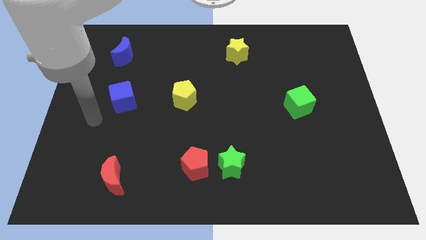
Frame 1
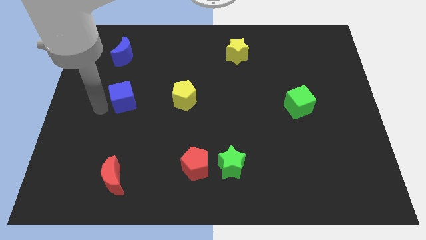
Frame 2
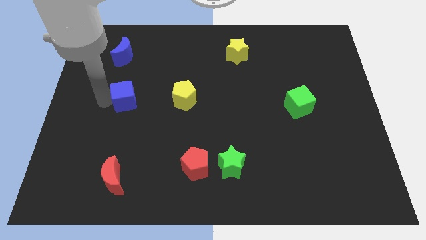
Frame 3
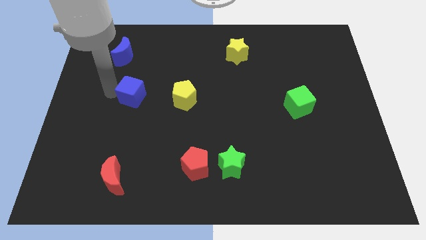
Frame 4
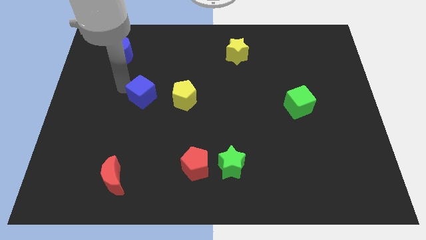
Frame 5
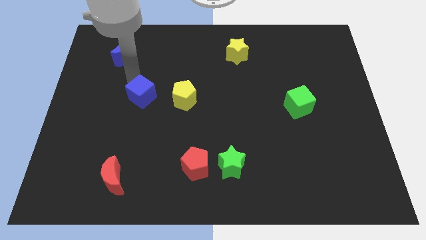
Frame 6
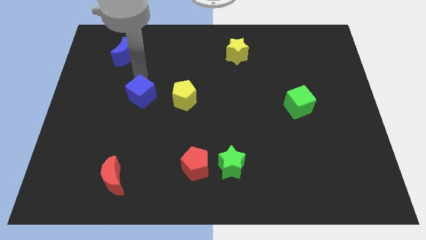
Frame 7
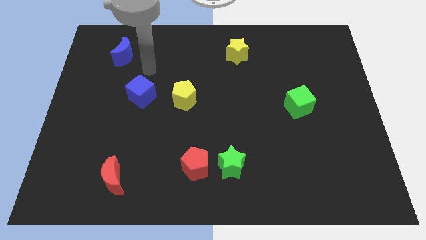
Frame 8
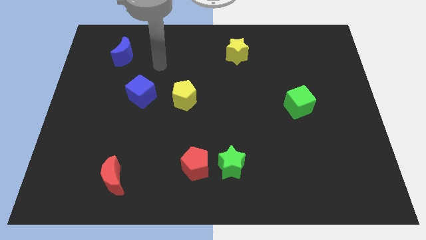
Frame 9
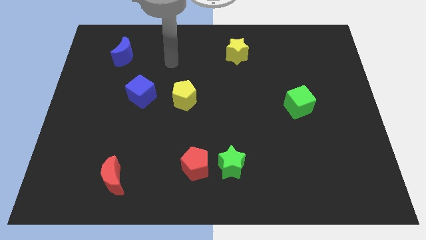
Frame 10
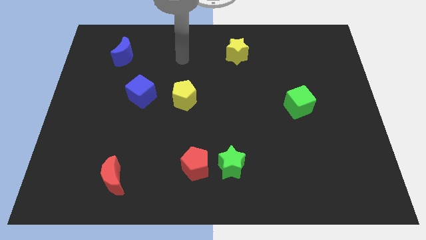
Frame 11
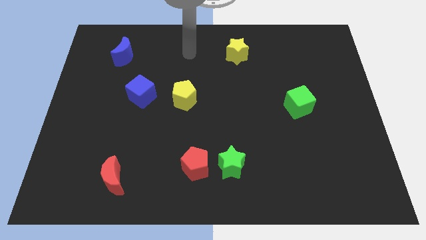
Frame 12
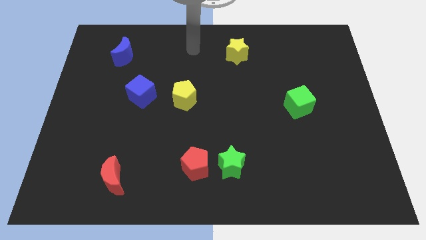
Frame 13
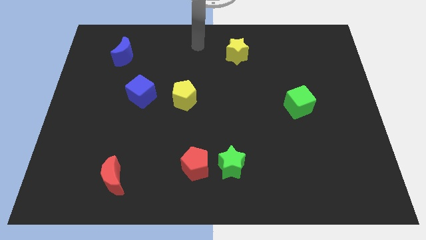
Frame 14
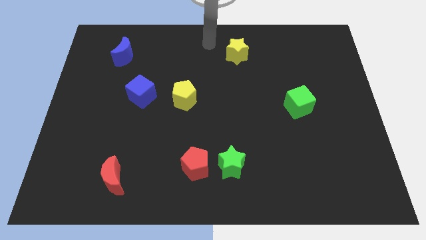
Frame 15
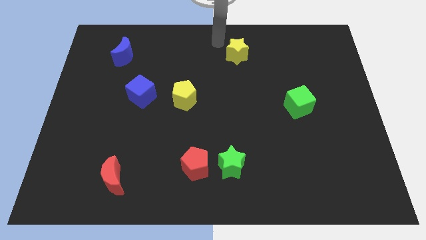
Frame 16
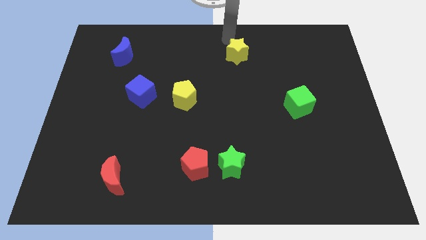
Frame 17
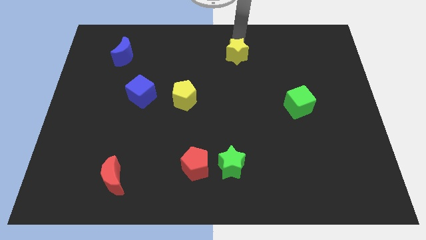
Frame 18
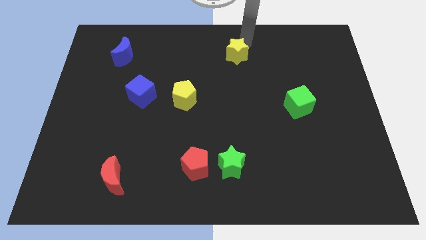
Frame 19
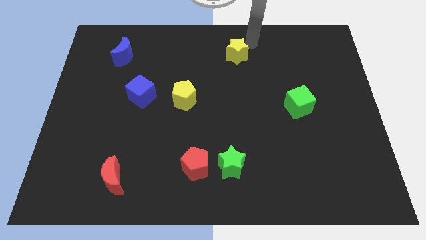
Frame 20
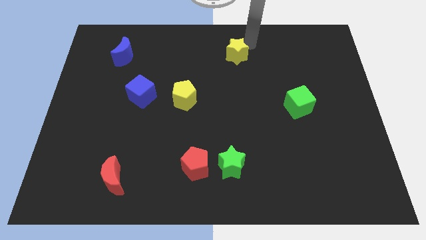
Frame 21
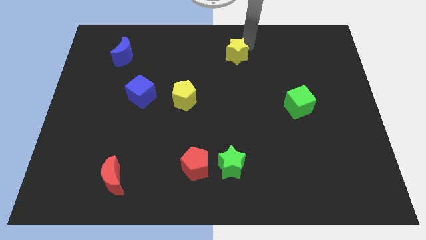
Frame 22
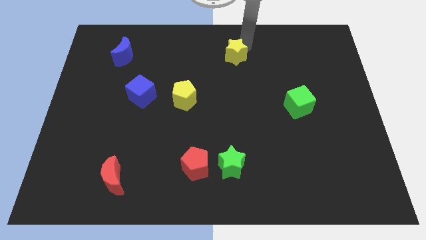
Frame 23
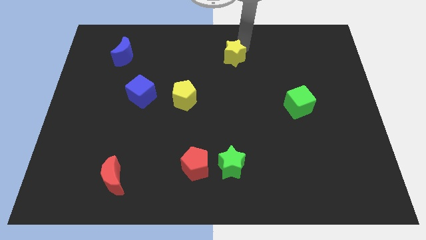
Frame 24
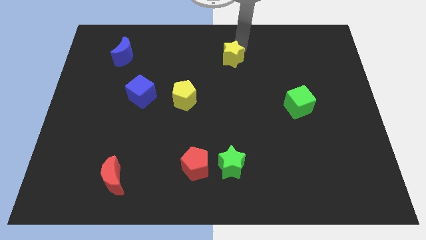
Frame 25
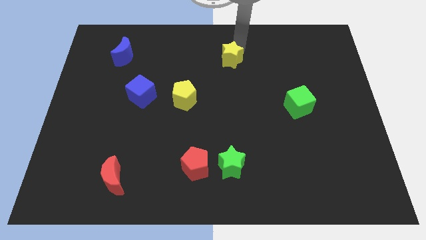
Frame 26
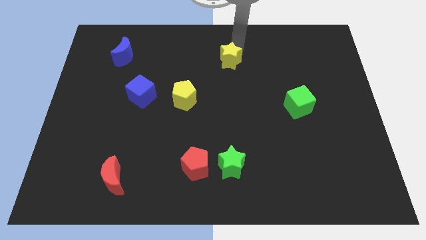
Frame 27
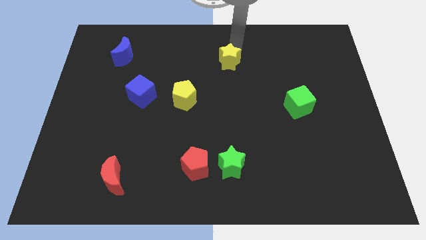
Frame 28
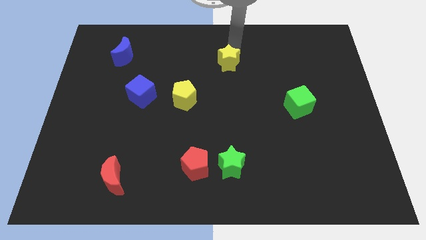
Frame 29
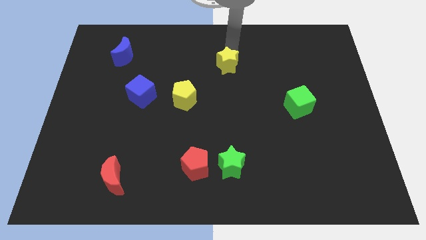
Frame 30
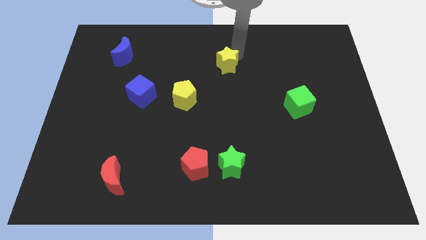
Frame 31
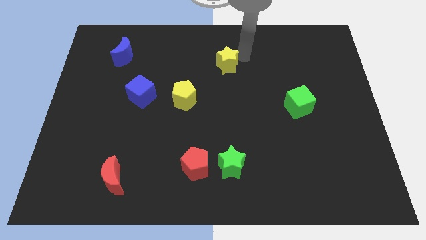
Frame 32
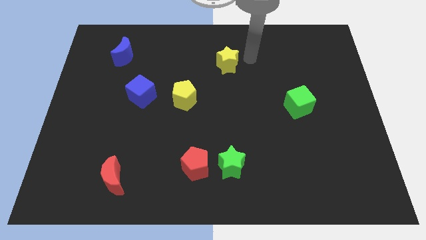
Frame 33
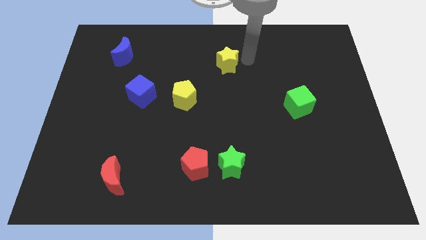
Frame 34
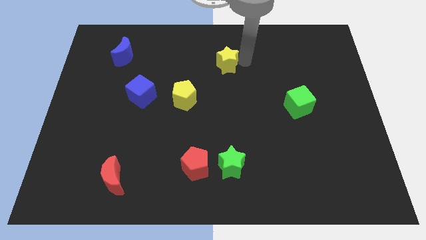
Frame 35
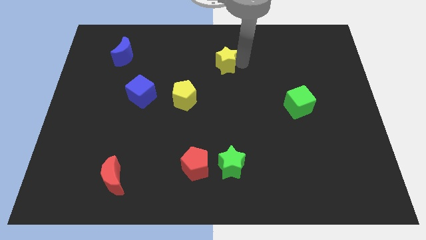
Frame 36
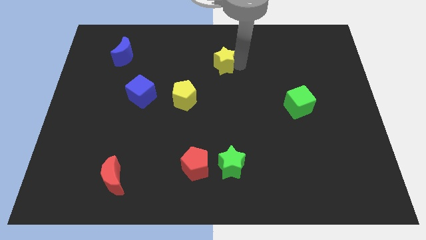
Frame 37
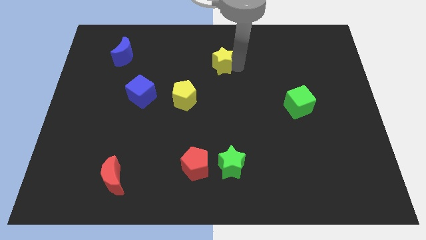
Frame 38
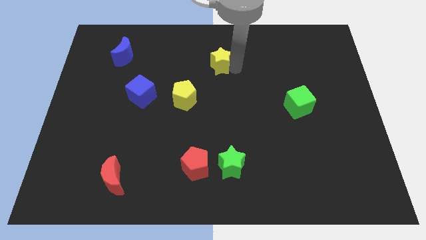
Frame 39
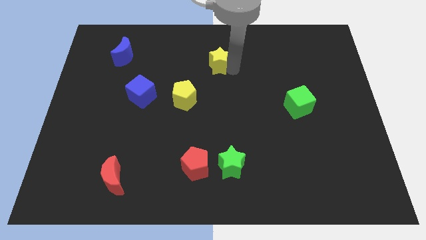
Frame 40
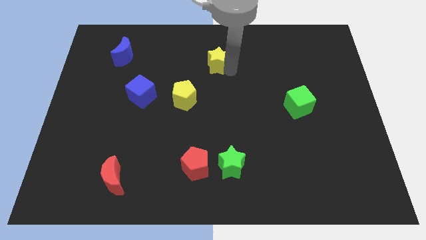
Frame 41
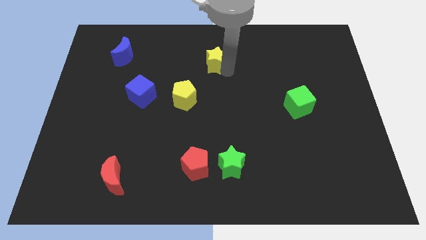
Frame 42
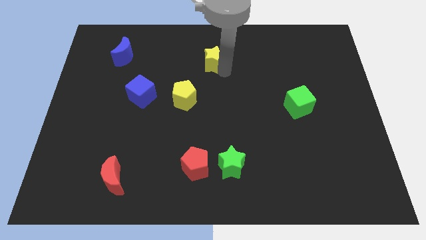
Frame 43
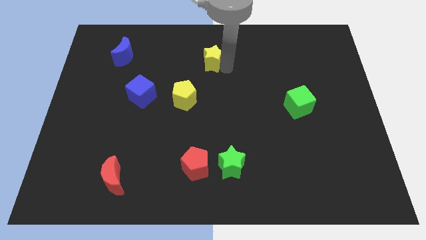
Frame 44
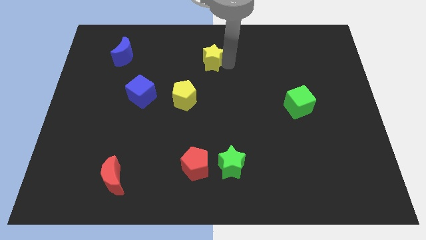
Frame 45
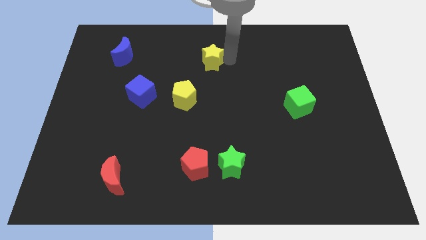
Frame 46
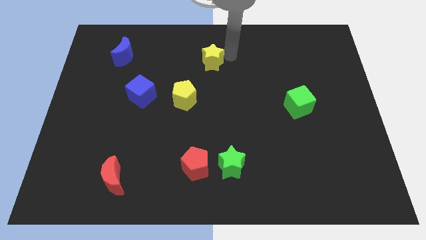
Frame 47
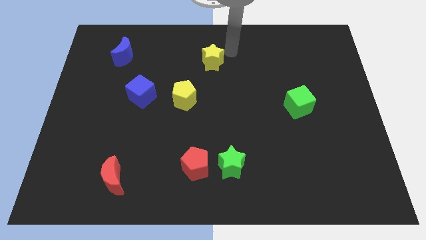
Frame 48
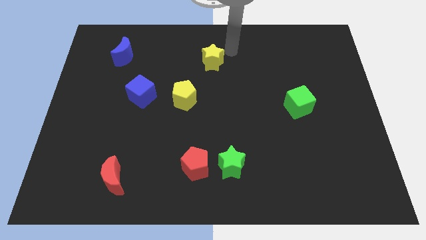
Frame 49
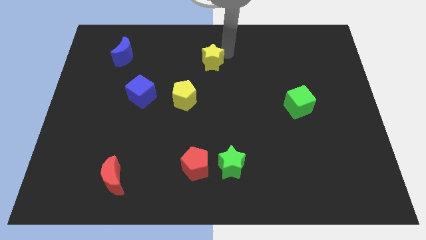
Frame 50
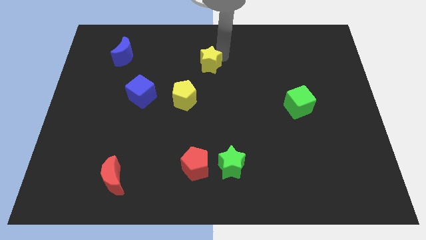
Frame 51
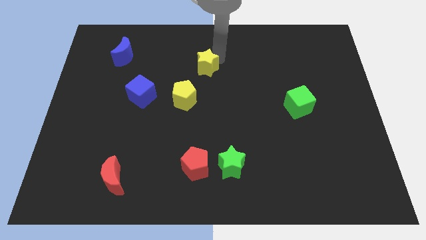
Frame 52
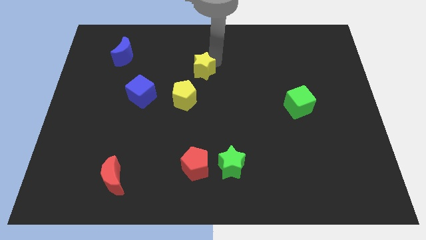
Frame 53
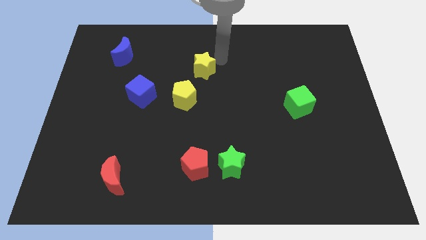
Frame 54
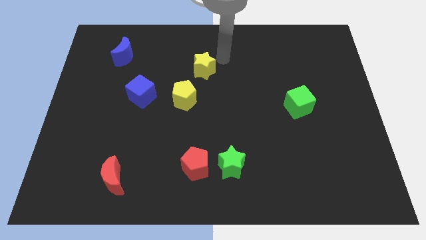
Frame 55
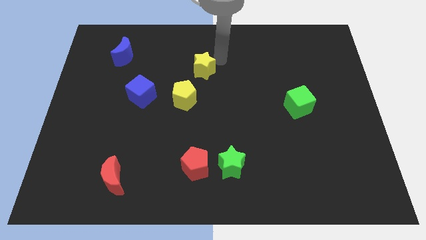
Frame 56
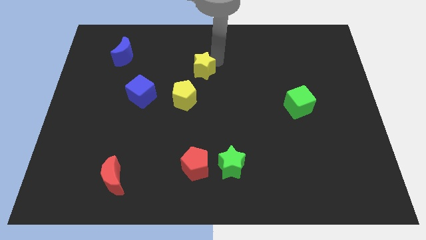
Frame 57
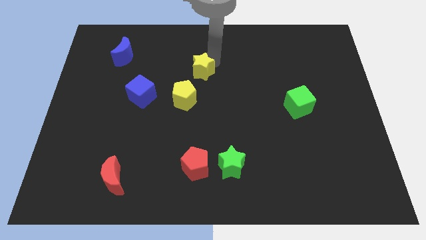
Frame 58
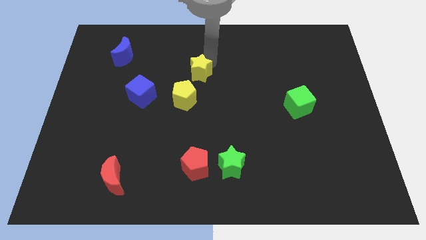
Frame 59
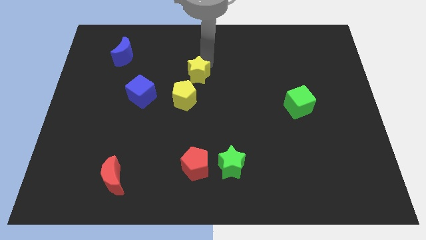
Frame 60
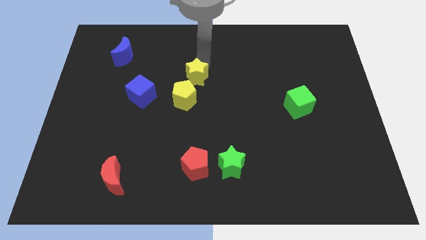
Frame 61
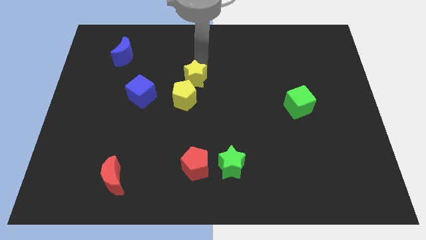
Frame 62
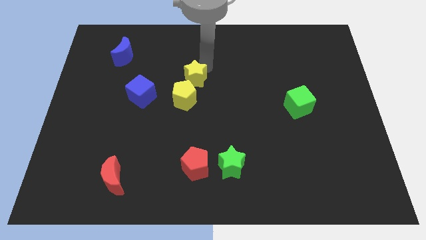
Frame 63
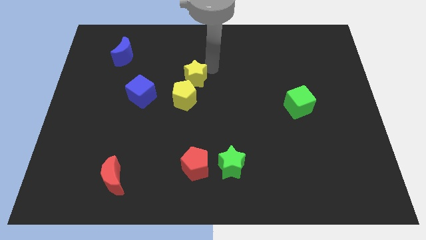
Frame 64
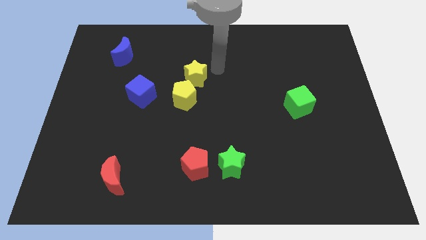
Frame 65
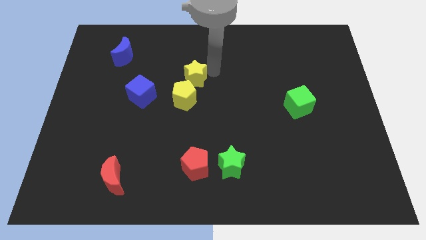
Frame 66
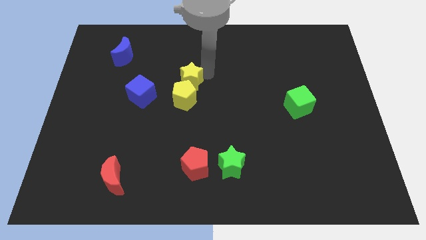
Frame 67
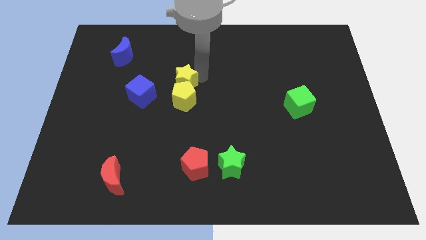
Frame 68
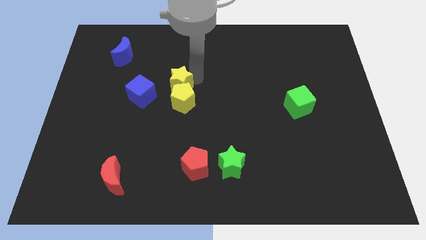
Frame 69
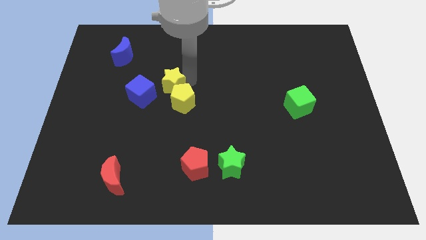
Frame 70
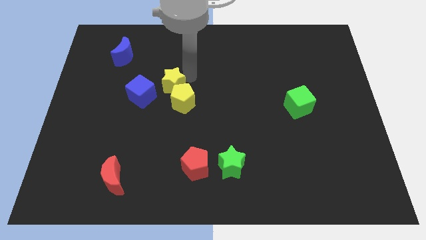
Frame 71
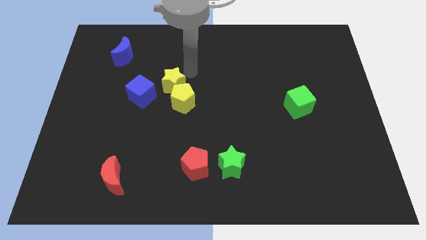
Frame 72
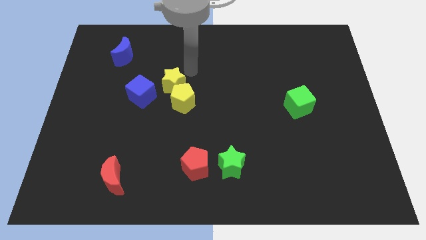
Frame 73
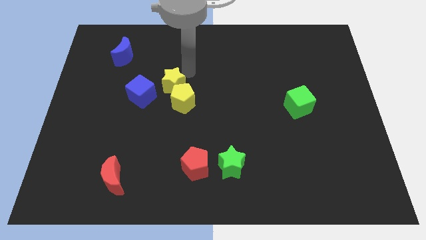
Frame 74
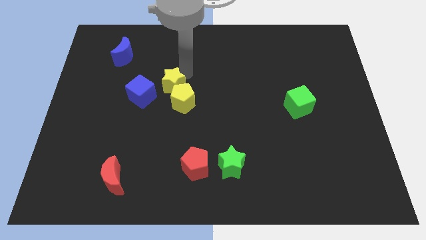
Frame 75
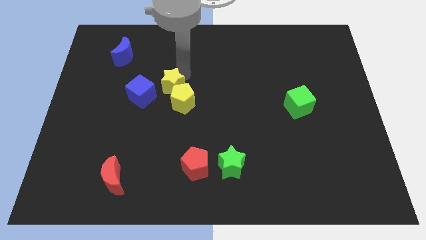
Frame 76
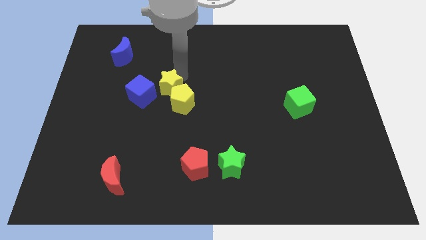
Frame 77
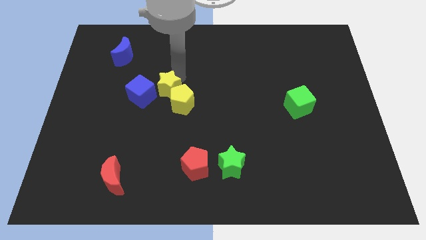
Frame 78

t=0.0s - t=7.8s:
slide the yellow star down and to the left

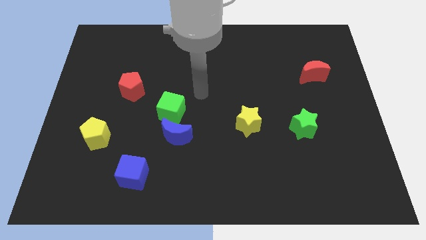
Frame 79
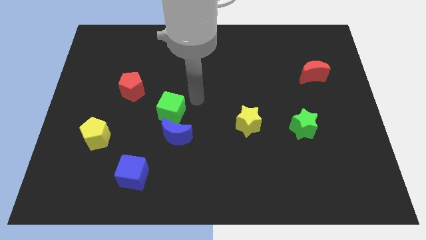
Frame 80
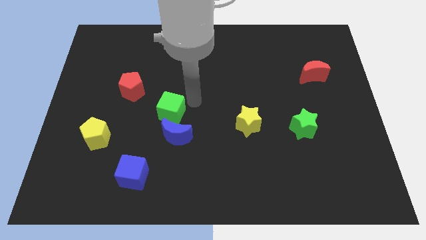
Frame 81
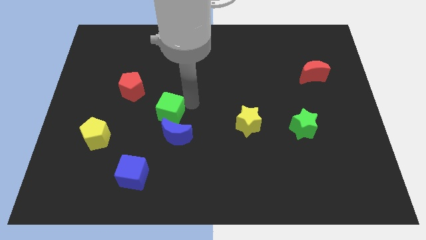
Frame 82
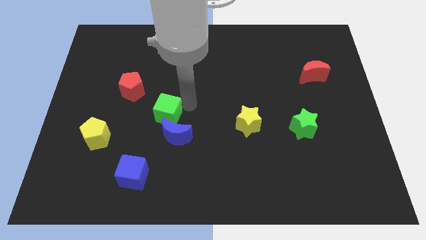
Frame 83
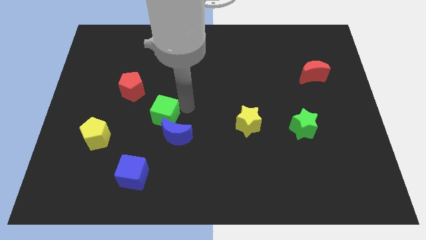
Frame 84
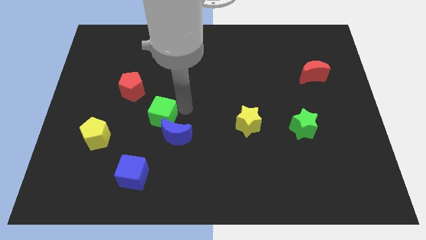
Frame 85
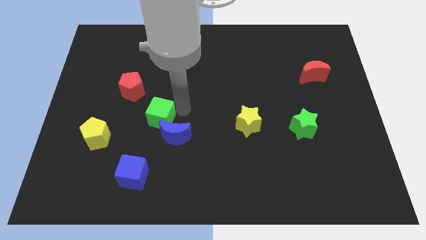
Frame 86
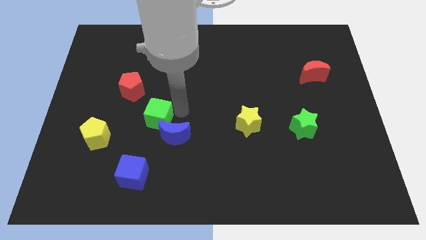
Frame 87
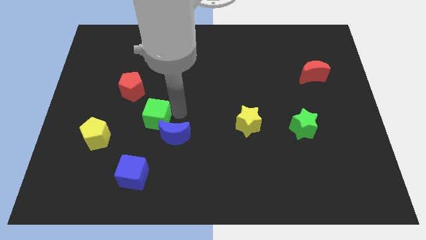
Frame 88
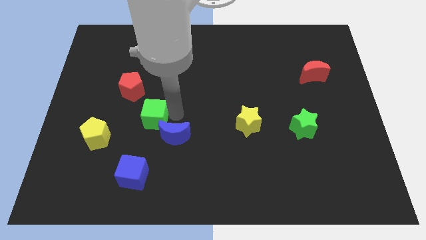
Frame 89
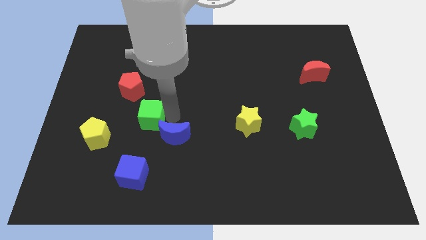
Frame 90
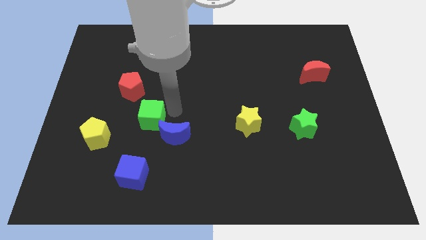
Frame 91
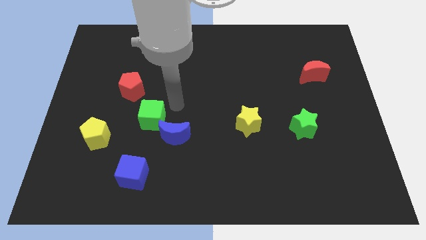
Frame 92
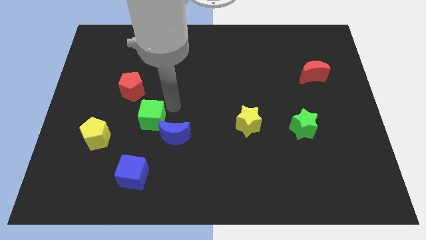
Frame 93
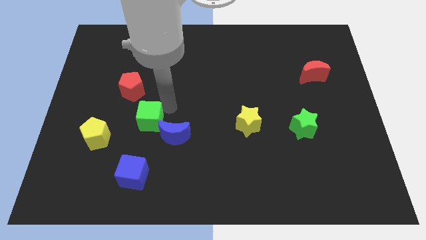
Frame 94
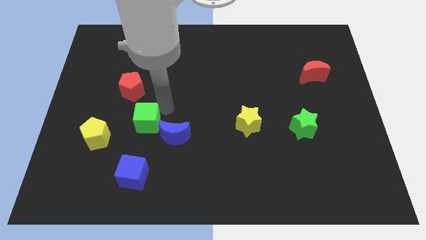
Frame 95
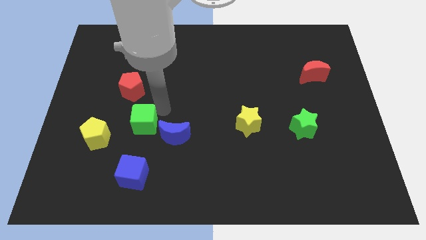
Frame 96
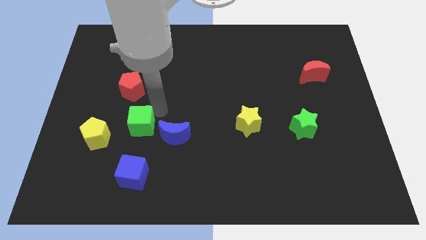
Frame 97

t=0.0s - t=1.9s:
push the green cube somewhat diagonally down and left
